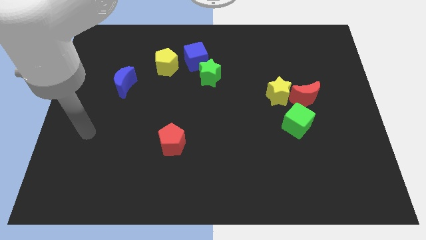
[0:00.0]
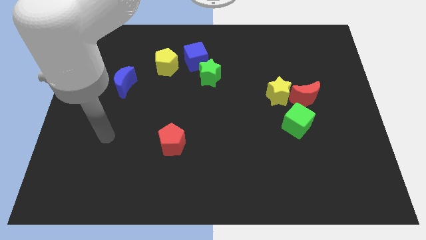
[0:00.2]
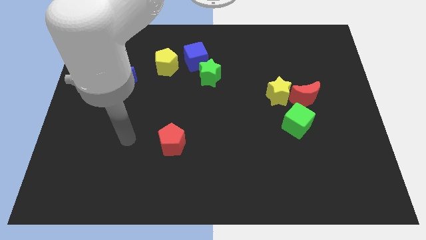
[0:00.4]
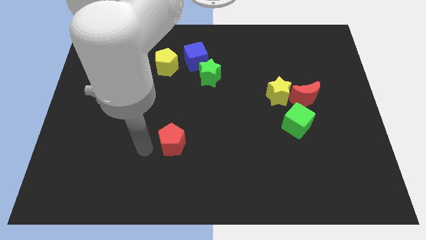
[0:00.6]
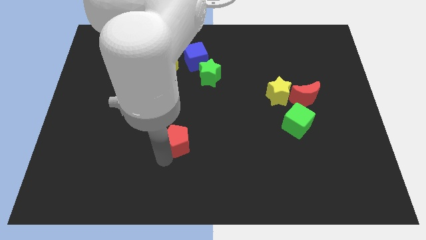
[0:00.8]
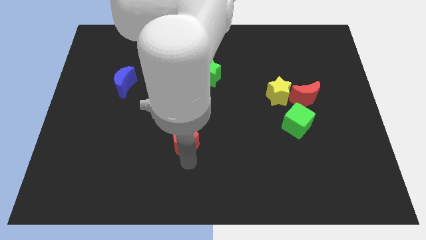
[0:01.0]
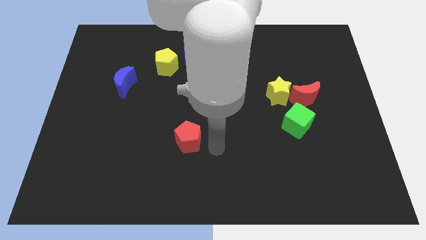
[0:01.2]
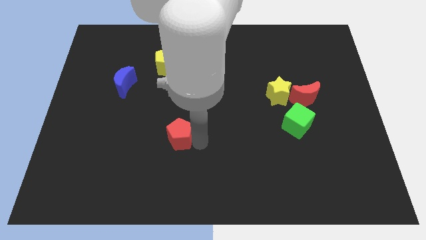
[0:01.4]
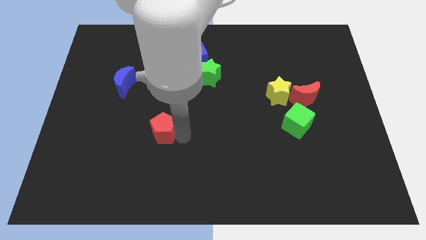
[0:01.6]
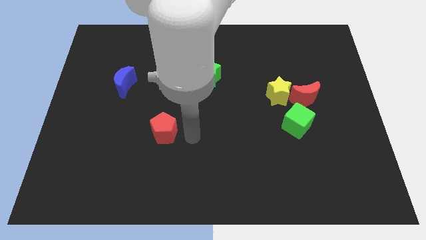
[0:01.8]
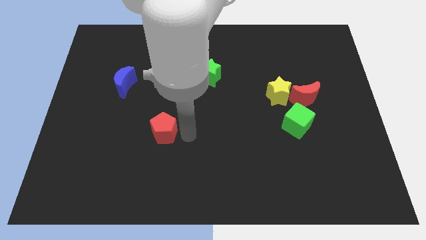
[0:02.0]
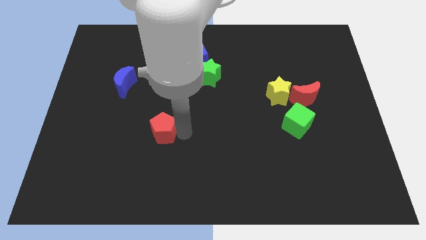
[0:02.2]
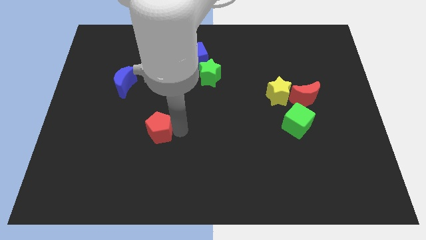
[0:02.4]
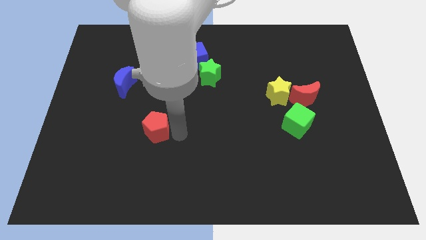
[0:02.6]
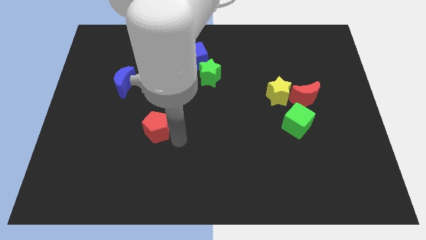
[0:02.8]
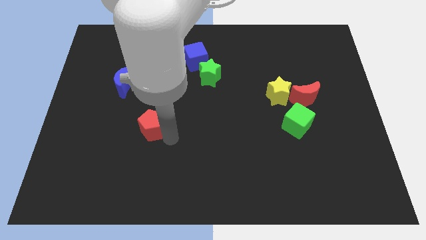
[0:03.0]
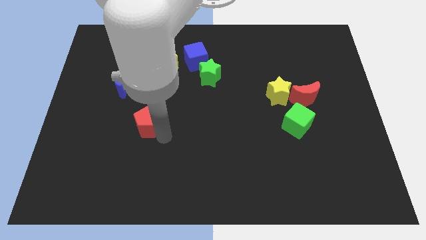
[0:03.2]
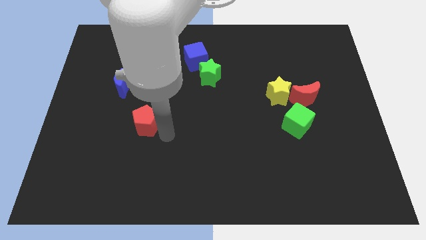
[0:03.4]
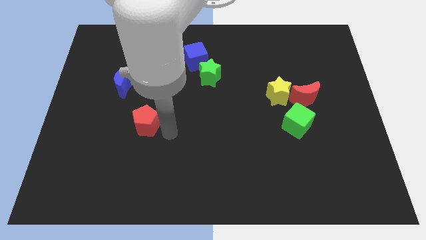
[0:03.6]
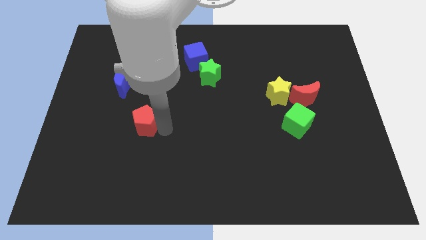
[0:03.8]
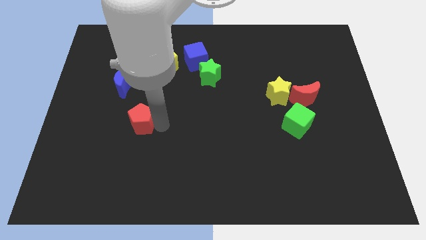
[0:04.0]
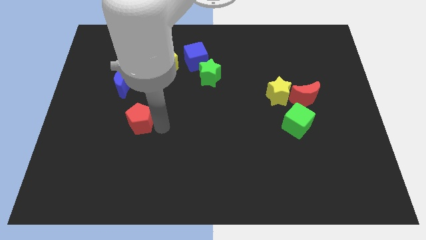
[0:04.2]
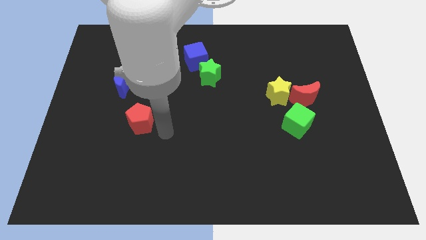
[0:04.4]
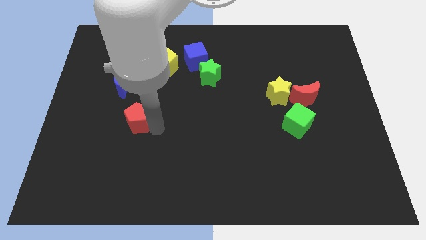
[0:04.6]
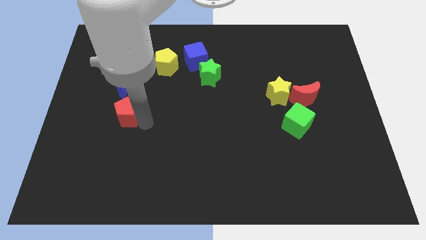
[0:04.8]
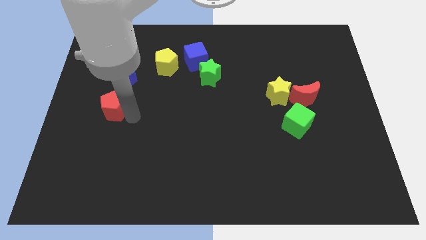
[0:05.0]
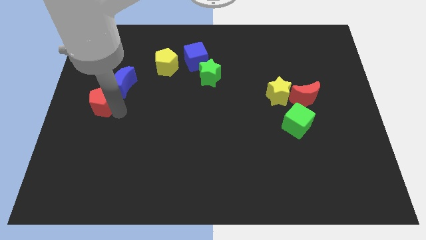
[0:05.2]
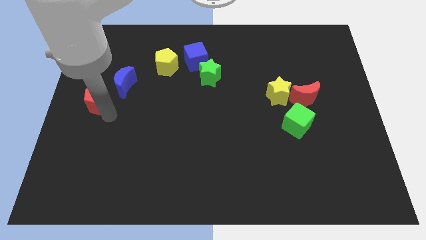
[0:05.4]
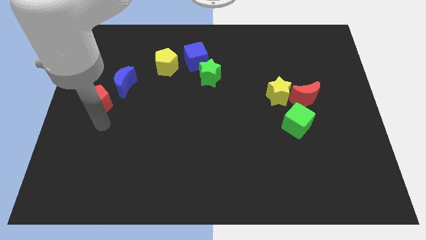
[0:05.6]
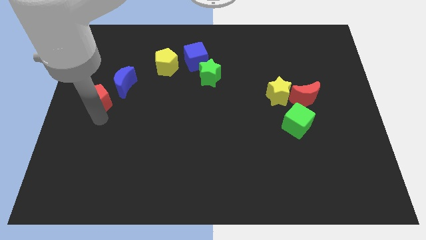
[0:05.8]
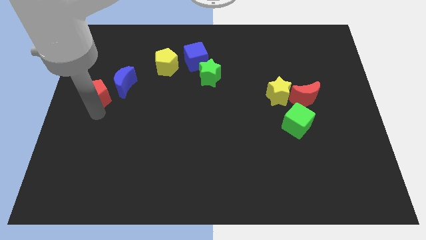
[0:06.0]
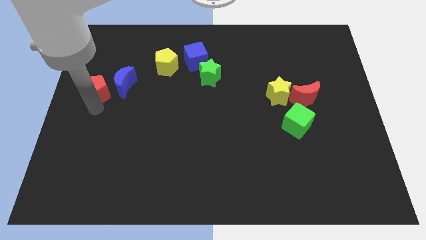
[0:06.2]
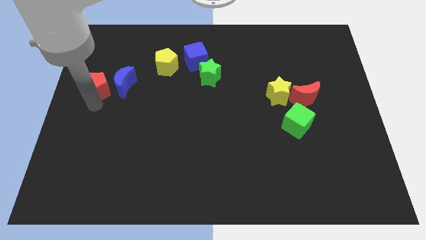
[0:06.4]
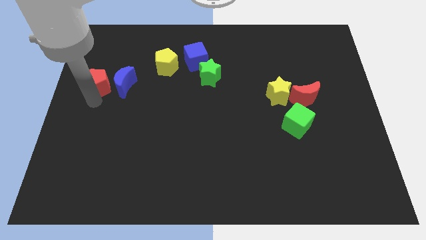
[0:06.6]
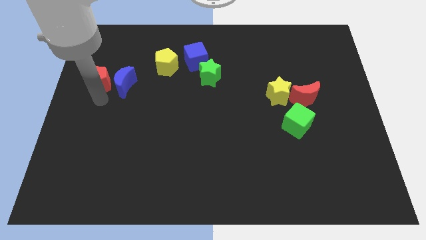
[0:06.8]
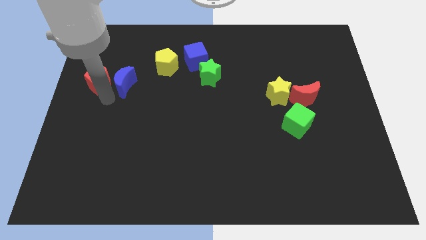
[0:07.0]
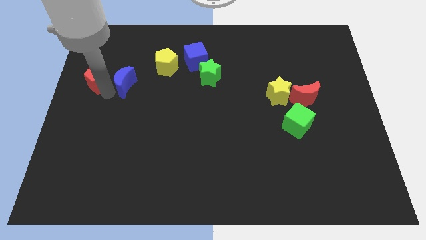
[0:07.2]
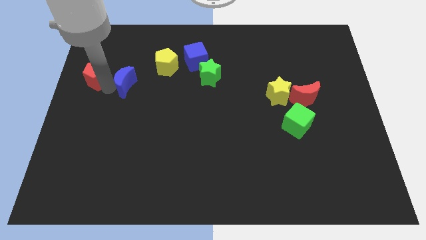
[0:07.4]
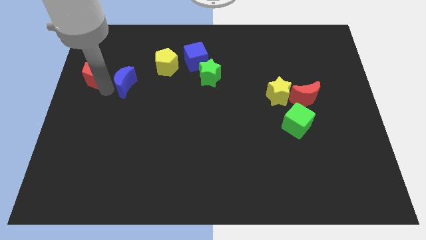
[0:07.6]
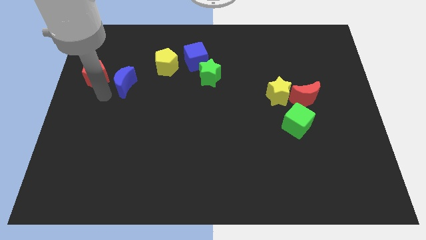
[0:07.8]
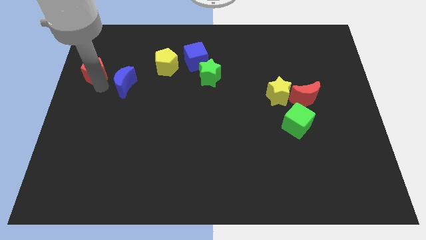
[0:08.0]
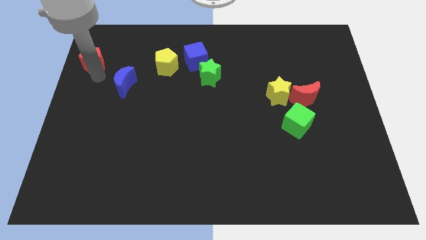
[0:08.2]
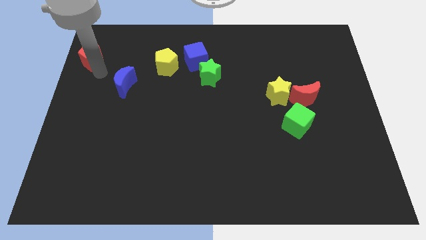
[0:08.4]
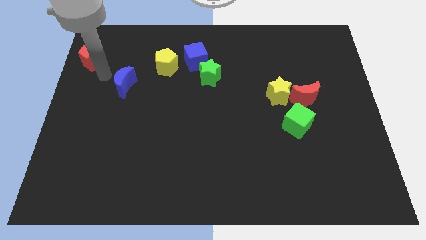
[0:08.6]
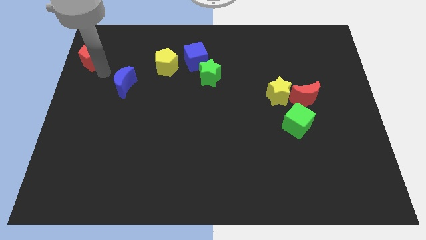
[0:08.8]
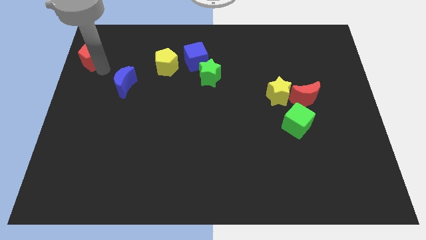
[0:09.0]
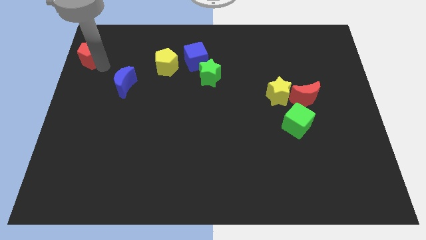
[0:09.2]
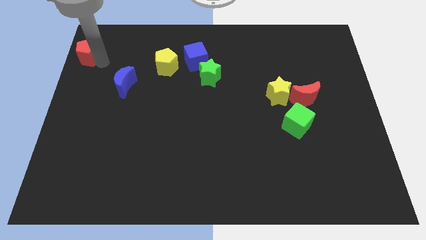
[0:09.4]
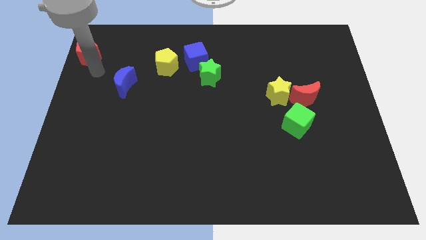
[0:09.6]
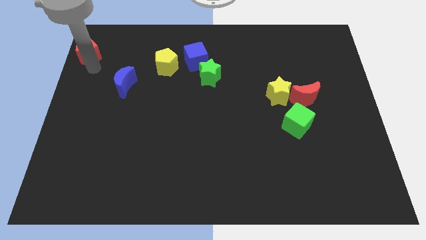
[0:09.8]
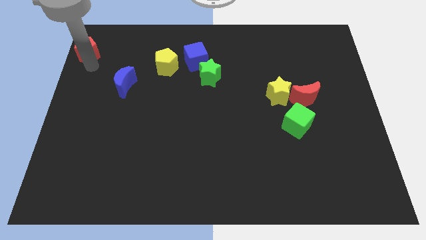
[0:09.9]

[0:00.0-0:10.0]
move the red pentagon to the top left

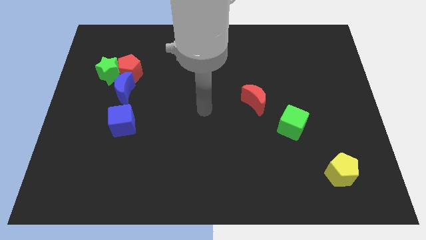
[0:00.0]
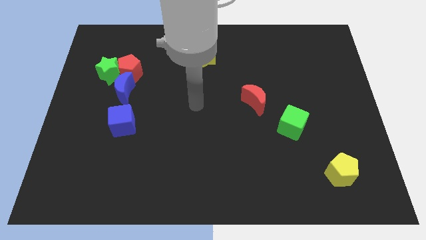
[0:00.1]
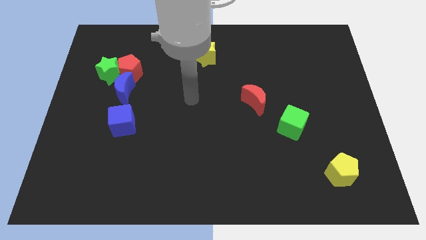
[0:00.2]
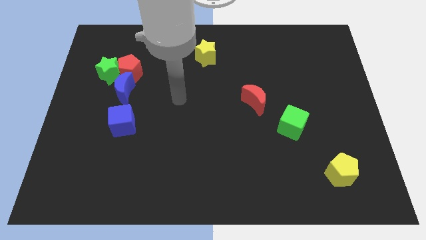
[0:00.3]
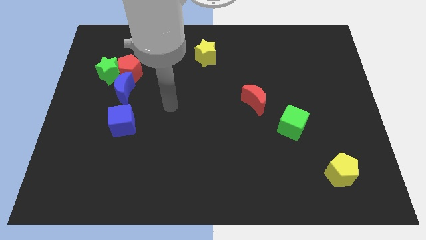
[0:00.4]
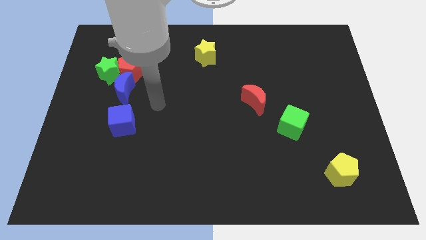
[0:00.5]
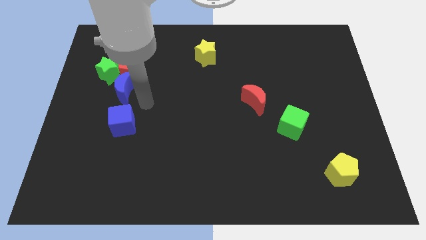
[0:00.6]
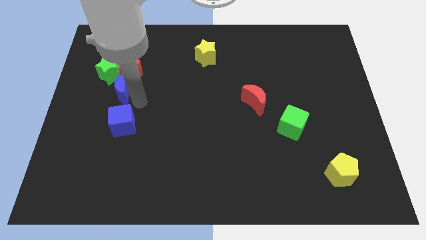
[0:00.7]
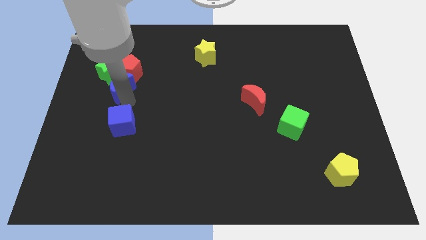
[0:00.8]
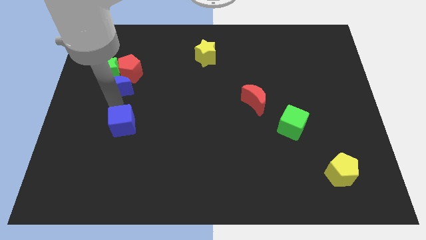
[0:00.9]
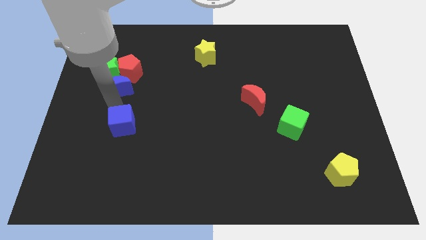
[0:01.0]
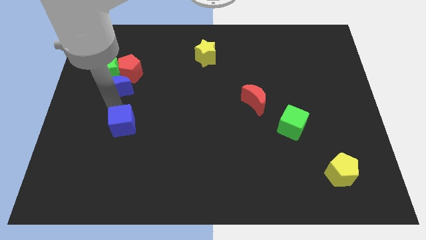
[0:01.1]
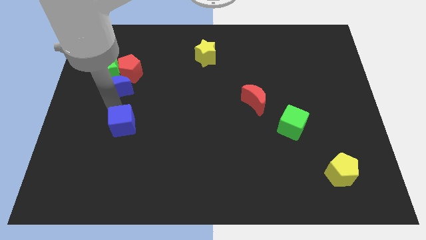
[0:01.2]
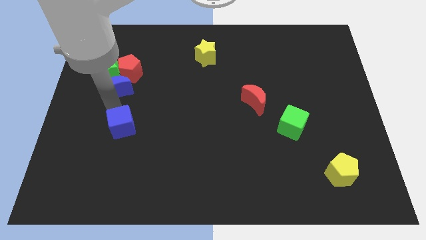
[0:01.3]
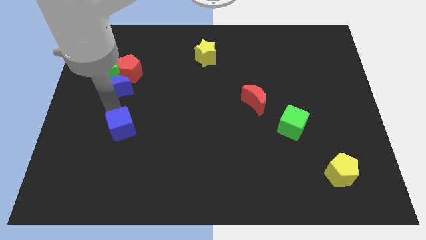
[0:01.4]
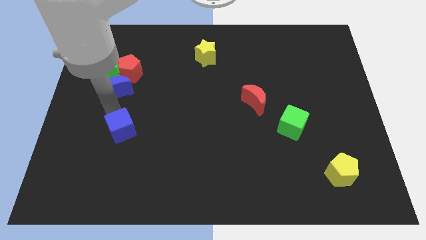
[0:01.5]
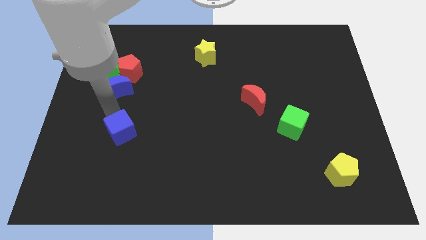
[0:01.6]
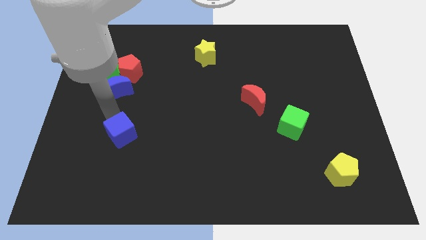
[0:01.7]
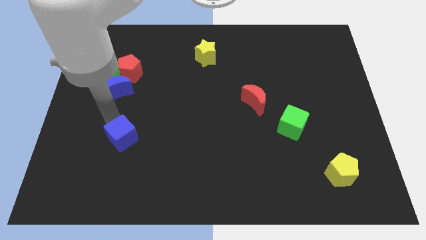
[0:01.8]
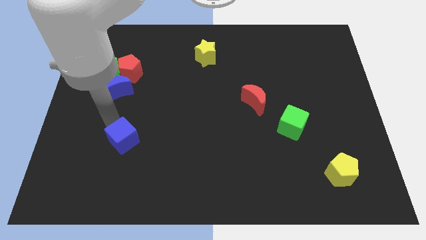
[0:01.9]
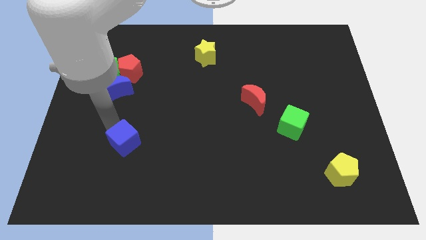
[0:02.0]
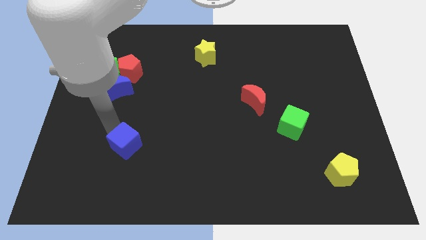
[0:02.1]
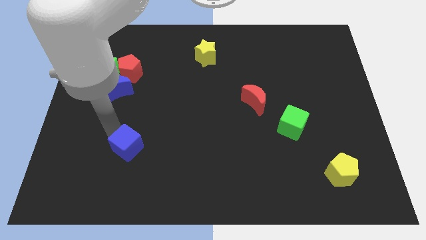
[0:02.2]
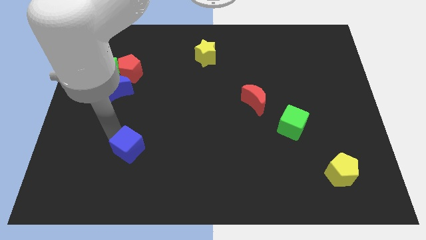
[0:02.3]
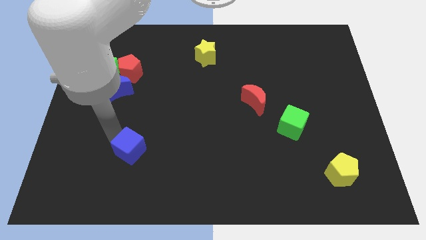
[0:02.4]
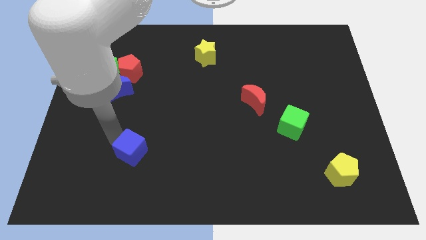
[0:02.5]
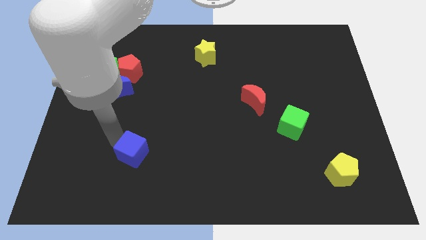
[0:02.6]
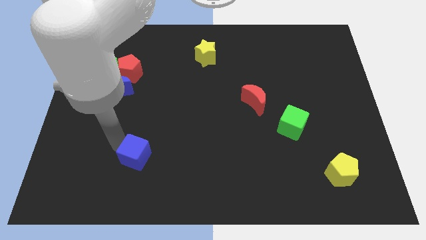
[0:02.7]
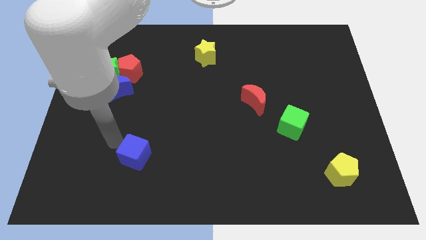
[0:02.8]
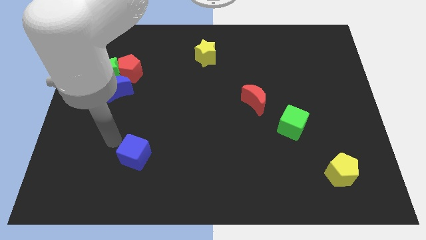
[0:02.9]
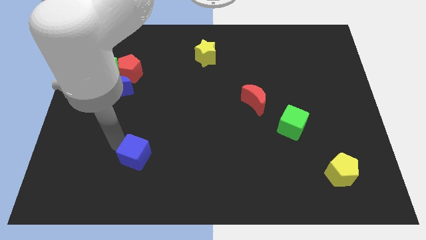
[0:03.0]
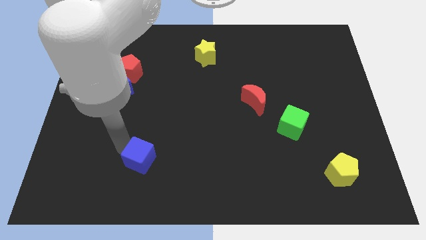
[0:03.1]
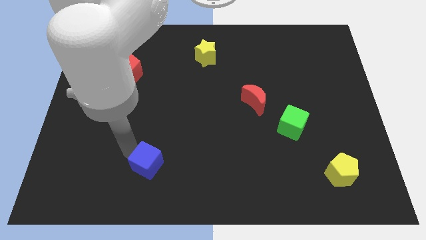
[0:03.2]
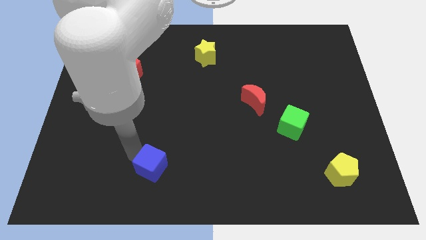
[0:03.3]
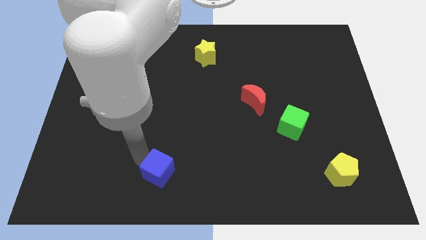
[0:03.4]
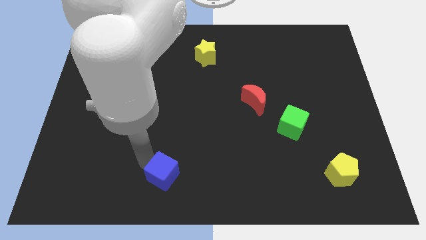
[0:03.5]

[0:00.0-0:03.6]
push the blue cube to the bottom
